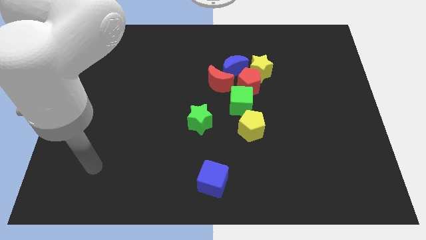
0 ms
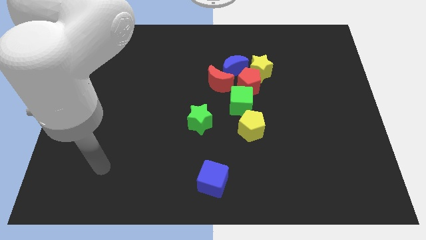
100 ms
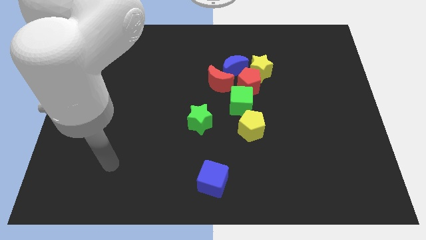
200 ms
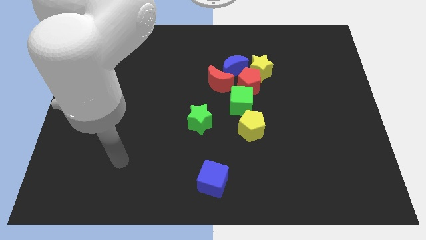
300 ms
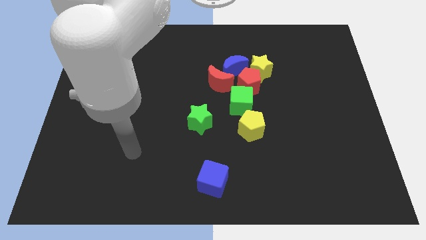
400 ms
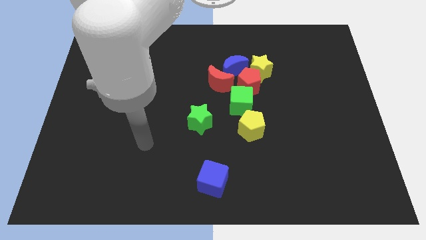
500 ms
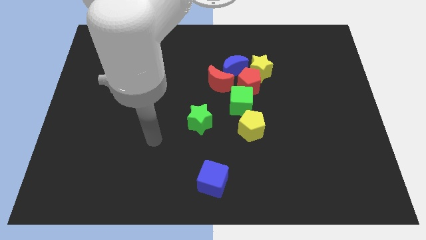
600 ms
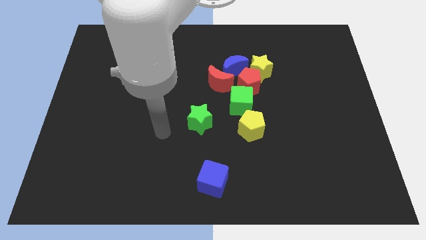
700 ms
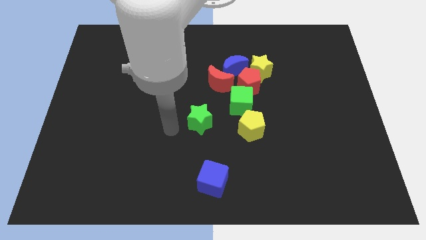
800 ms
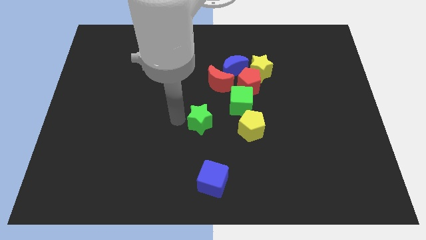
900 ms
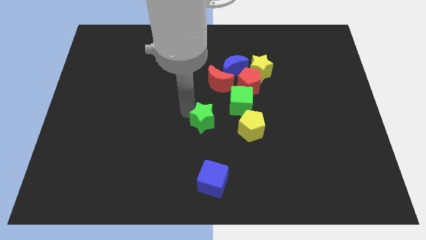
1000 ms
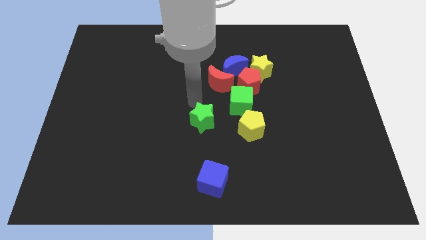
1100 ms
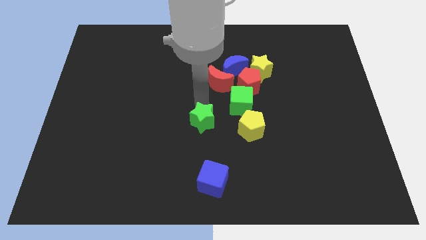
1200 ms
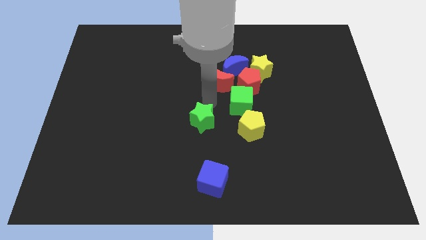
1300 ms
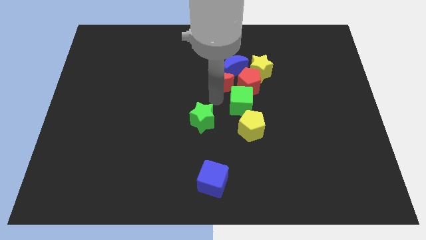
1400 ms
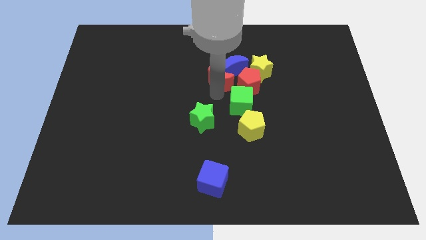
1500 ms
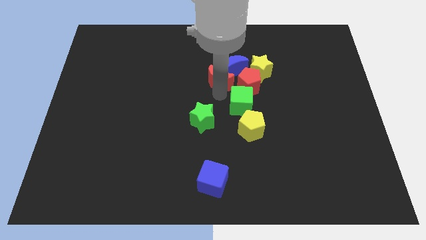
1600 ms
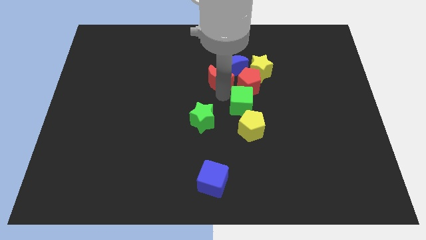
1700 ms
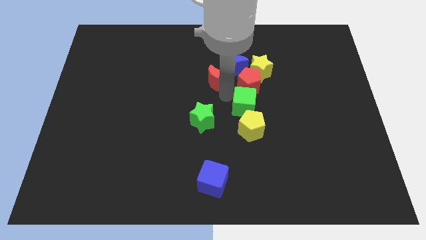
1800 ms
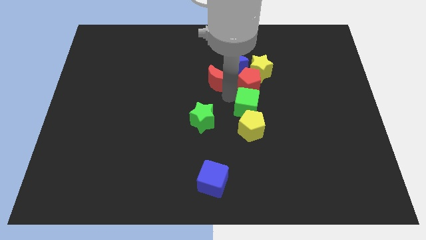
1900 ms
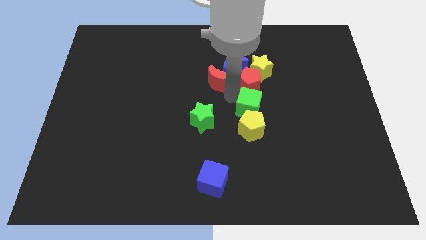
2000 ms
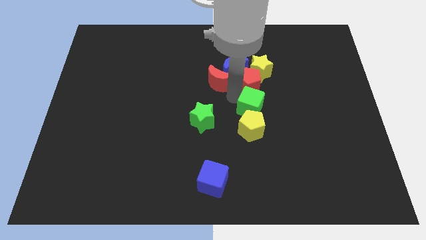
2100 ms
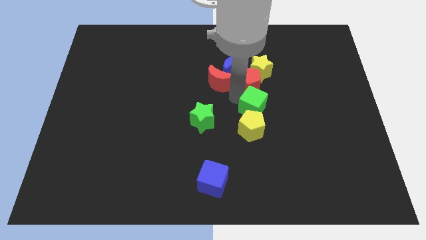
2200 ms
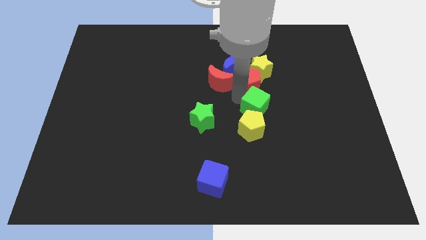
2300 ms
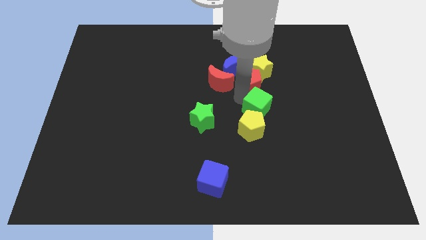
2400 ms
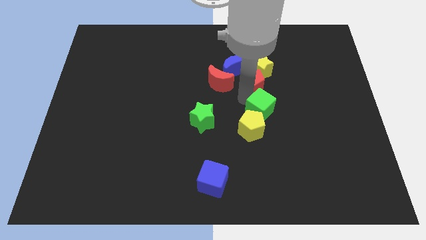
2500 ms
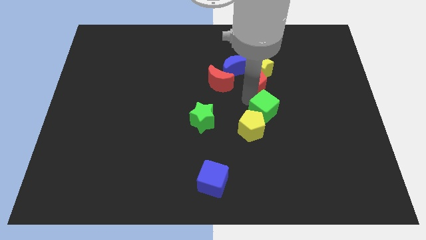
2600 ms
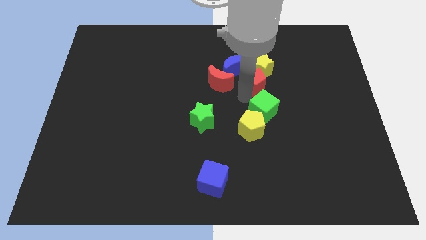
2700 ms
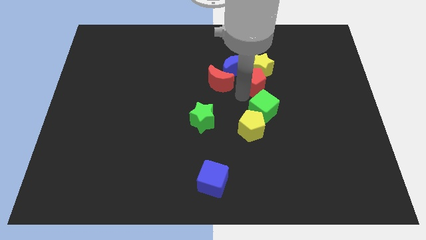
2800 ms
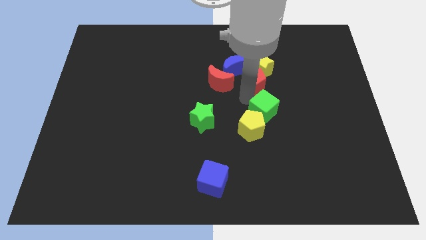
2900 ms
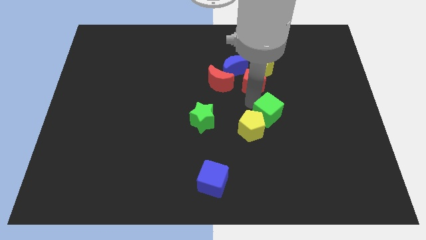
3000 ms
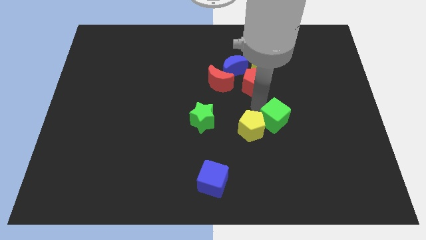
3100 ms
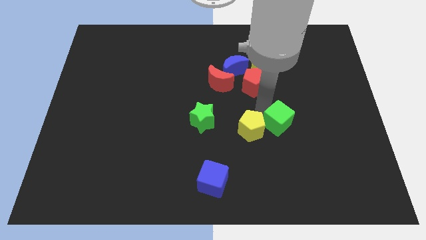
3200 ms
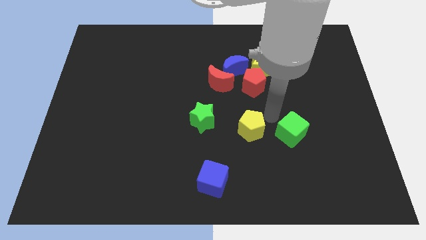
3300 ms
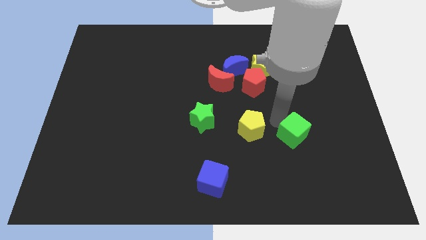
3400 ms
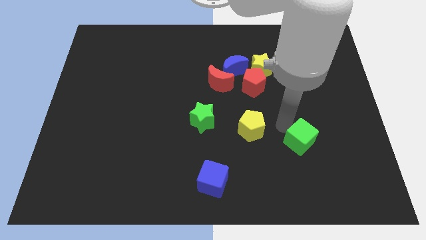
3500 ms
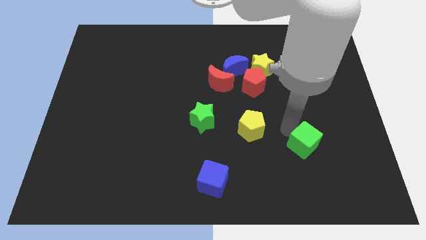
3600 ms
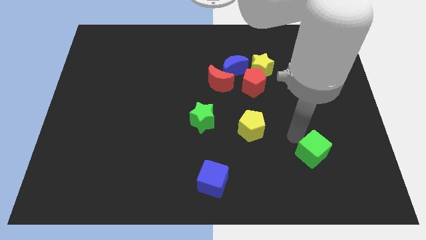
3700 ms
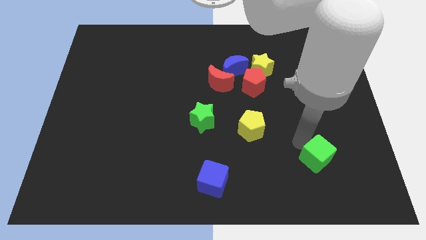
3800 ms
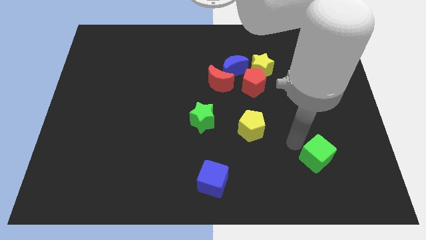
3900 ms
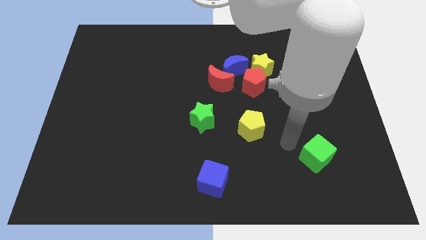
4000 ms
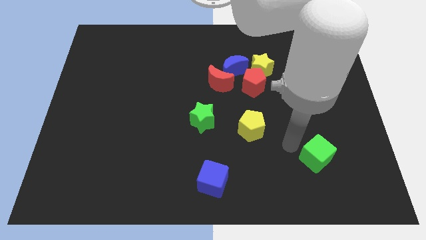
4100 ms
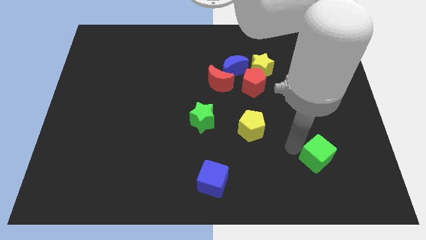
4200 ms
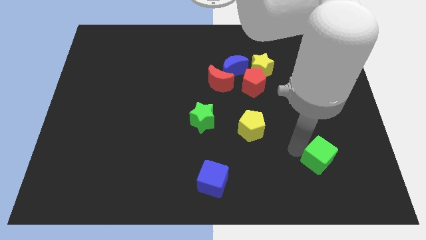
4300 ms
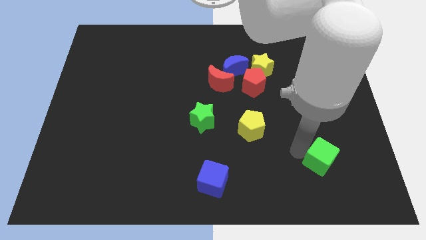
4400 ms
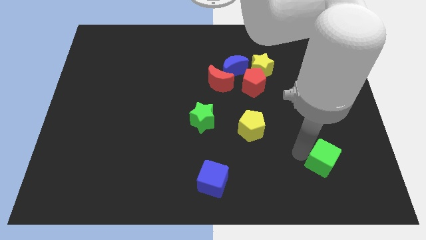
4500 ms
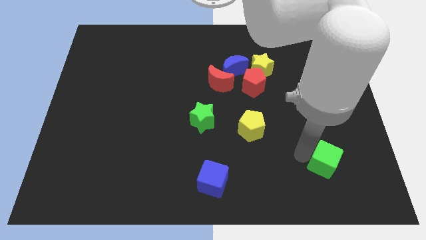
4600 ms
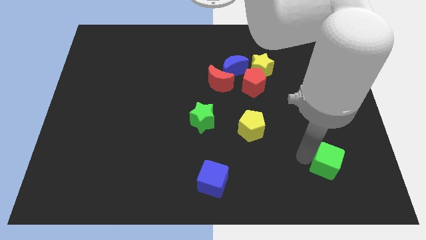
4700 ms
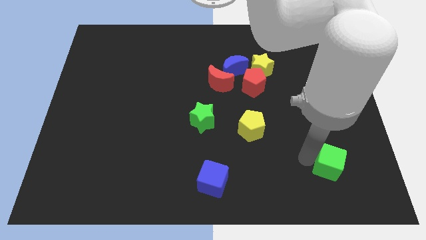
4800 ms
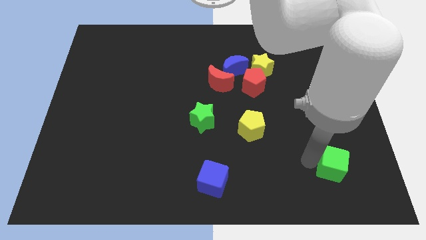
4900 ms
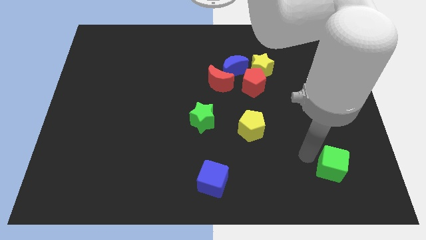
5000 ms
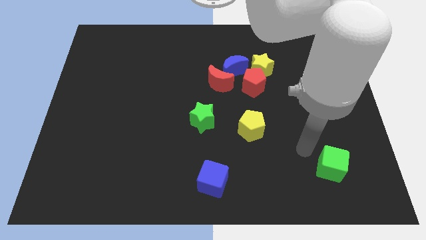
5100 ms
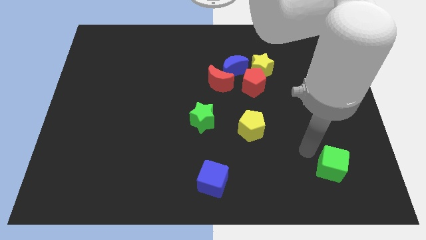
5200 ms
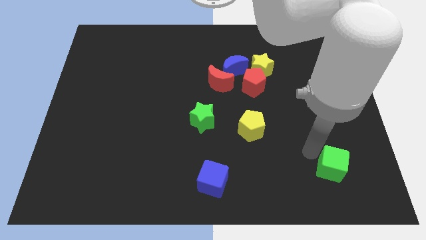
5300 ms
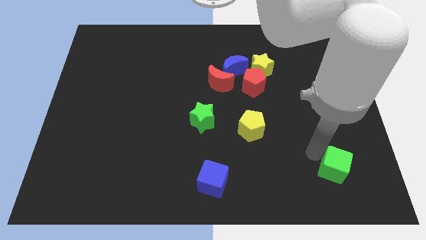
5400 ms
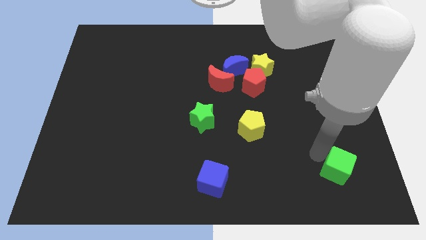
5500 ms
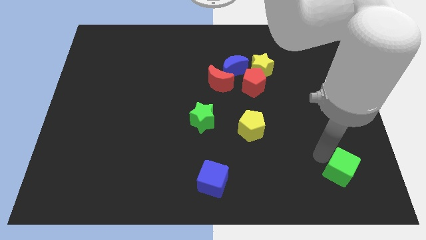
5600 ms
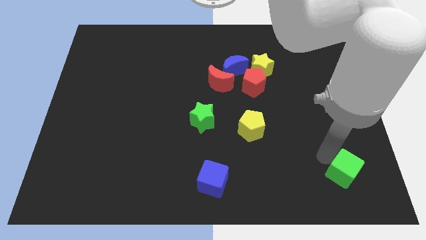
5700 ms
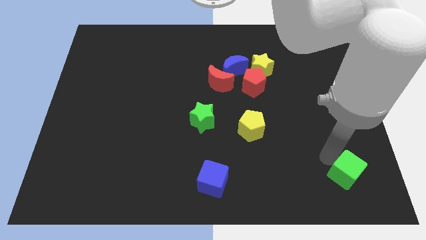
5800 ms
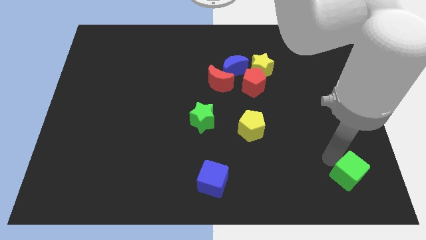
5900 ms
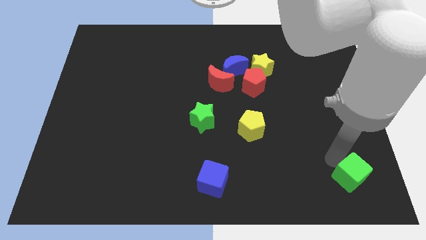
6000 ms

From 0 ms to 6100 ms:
slide the green cube to the bottom right of the board

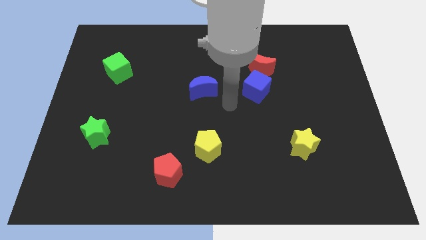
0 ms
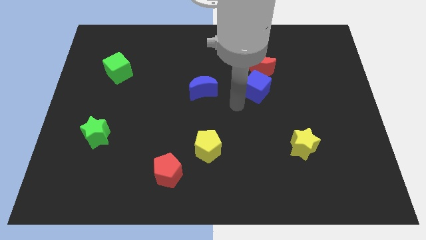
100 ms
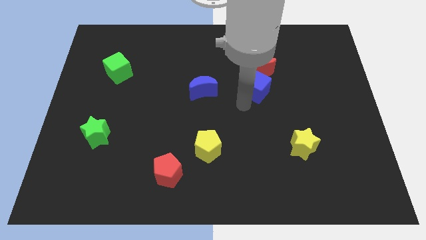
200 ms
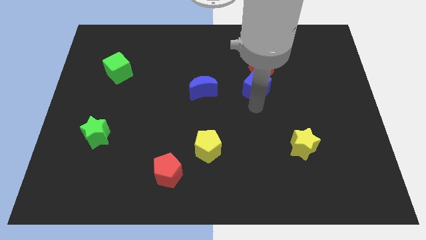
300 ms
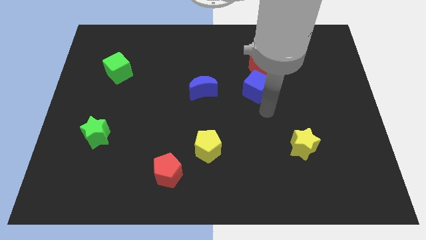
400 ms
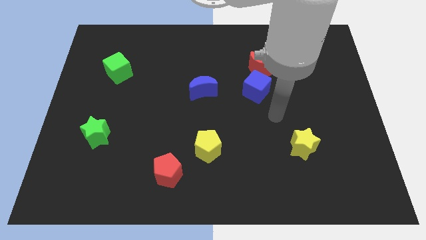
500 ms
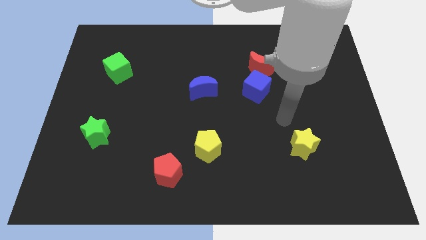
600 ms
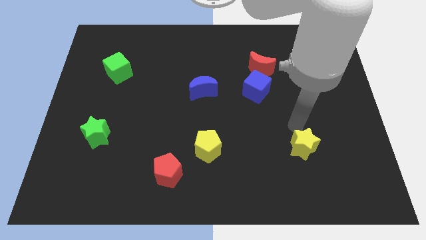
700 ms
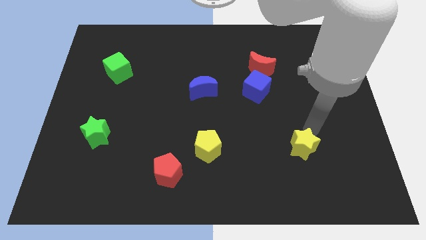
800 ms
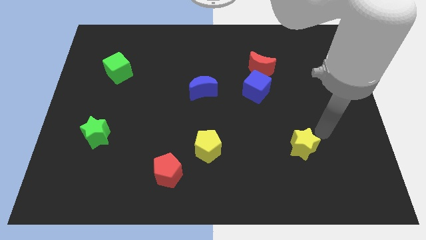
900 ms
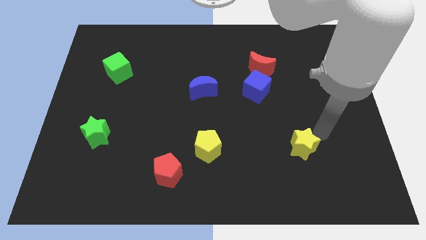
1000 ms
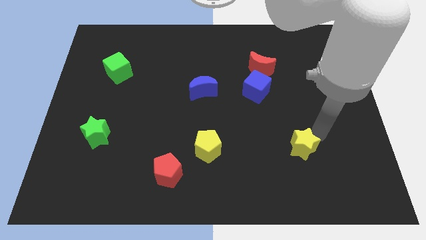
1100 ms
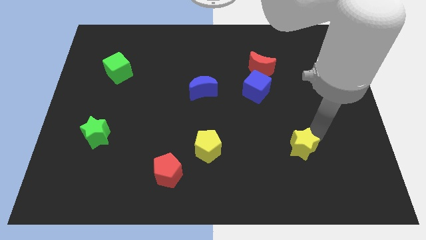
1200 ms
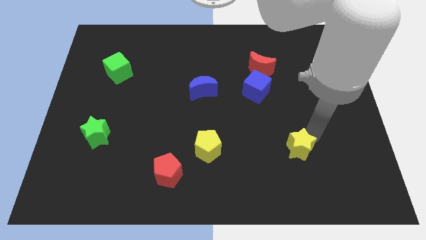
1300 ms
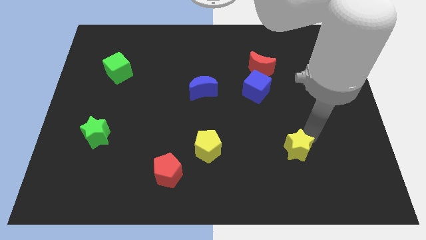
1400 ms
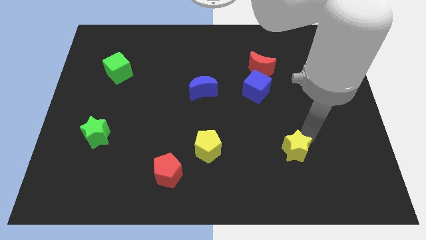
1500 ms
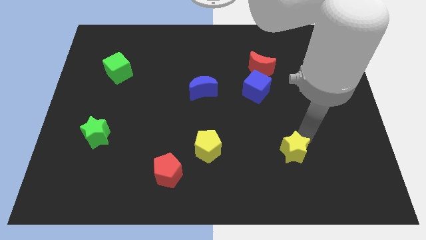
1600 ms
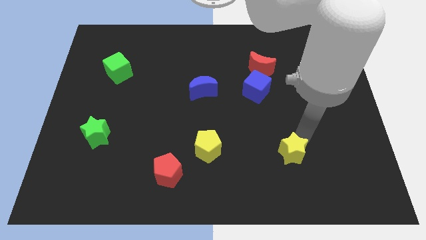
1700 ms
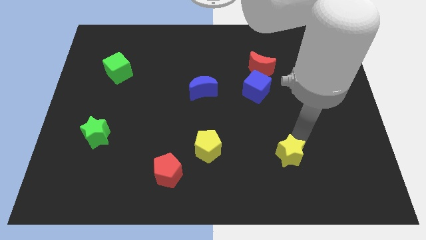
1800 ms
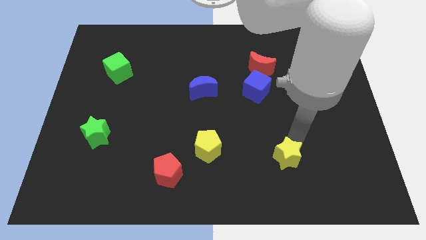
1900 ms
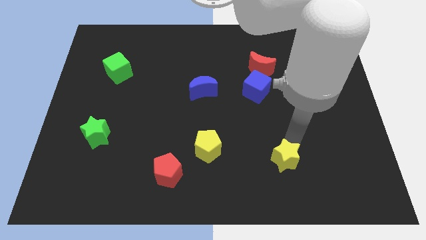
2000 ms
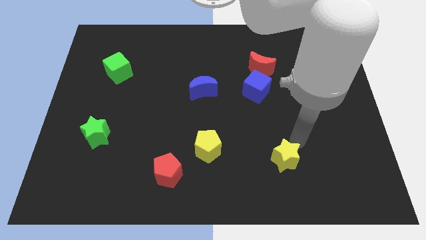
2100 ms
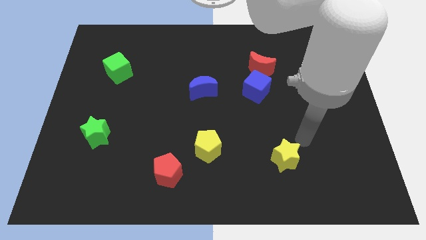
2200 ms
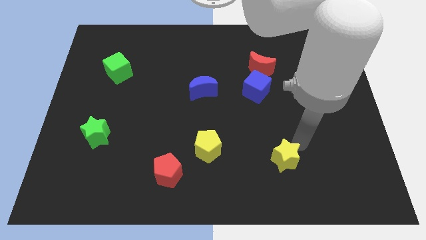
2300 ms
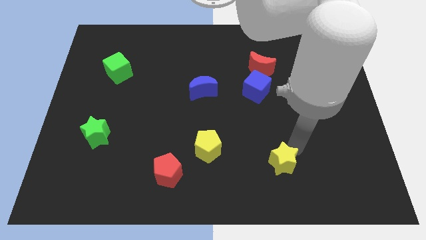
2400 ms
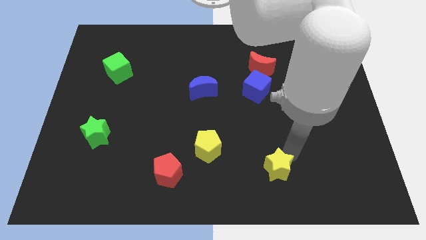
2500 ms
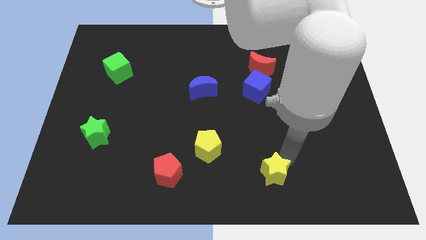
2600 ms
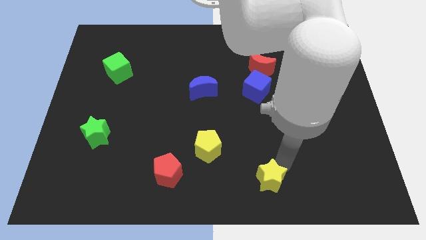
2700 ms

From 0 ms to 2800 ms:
slide the yellow star to the bottom
